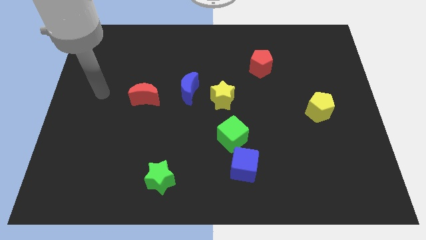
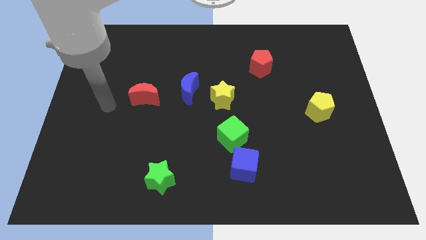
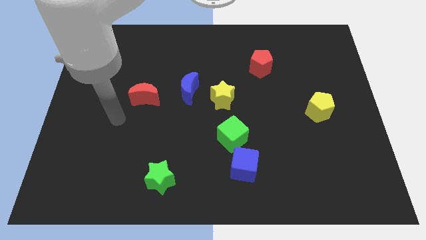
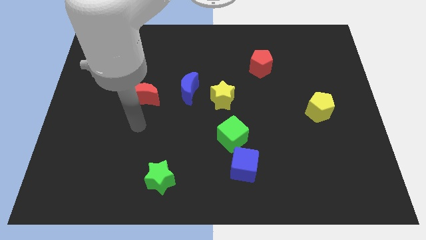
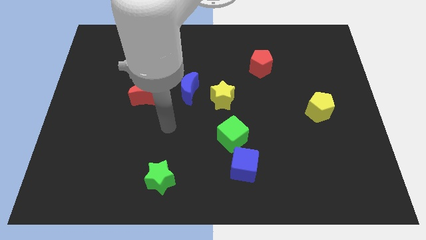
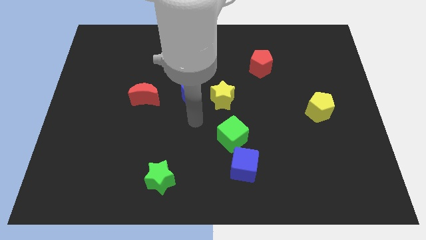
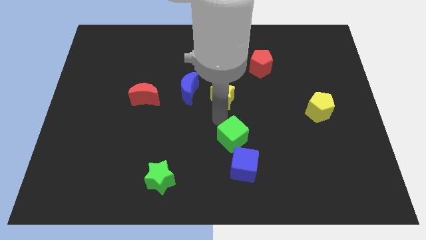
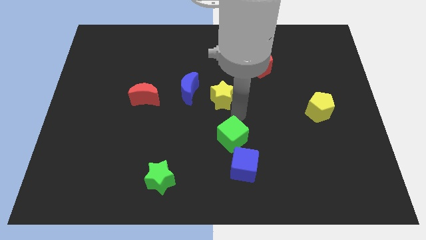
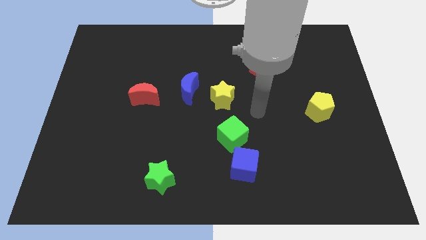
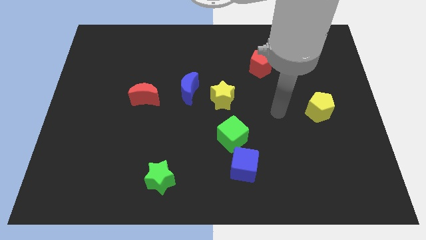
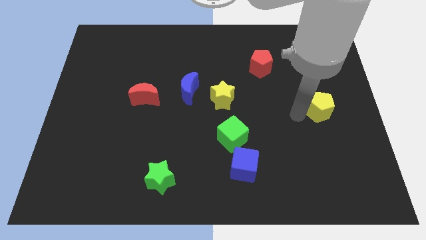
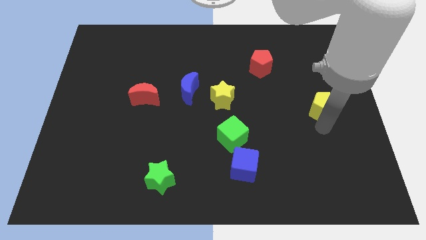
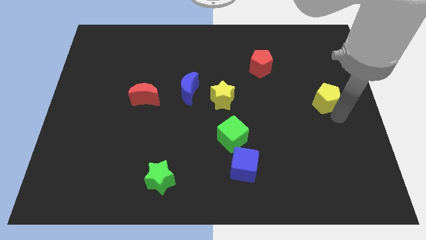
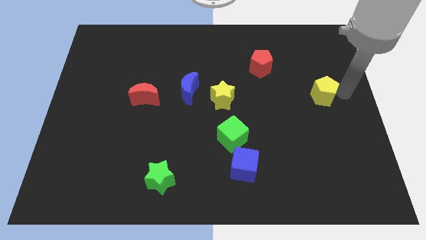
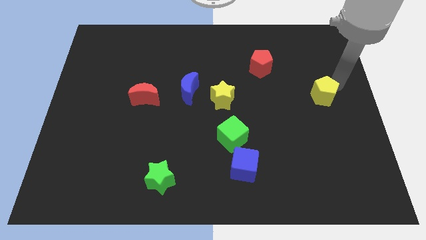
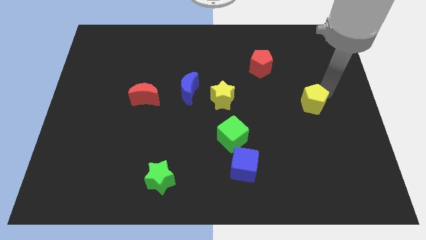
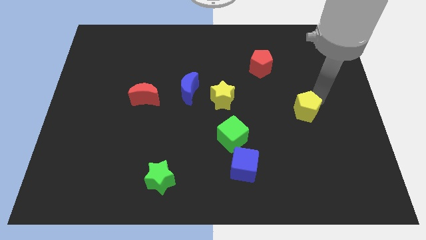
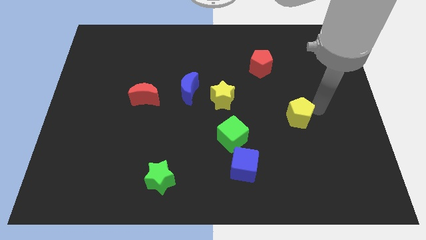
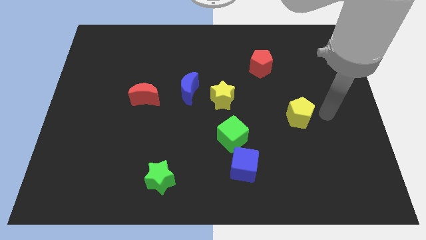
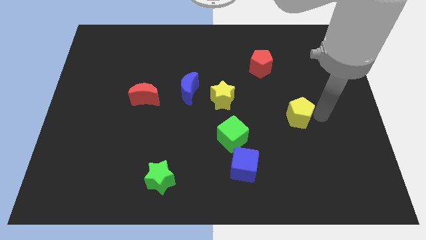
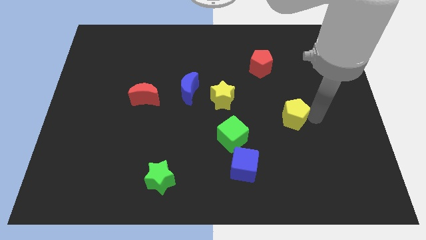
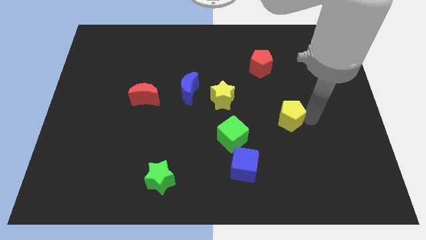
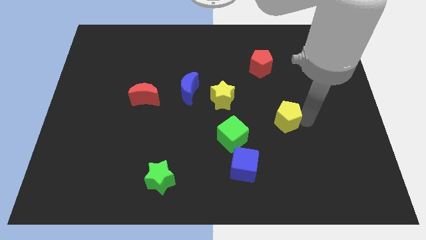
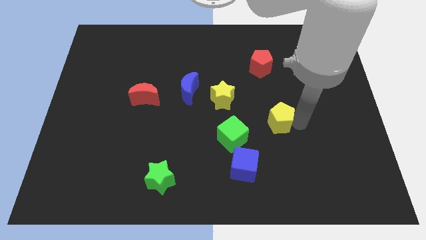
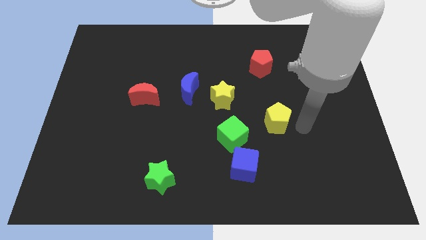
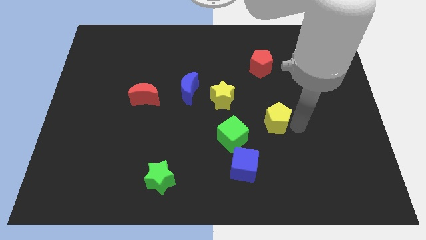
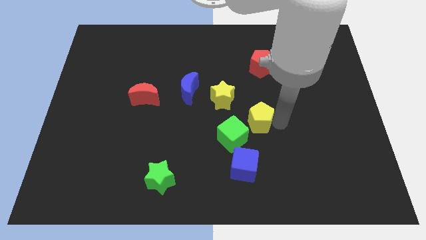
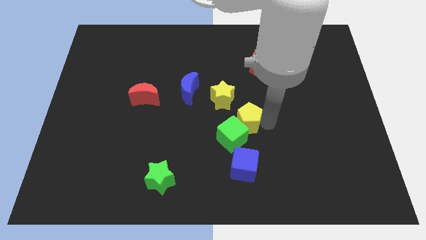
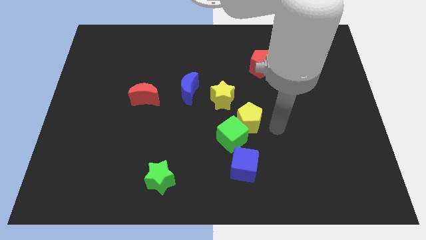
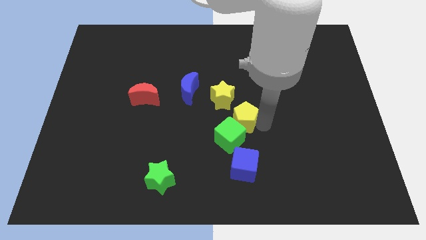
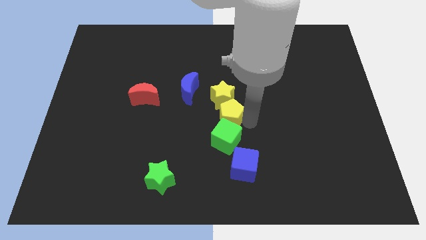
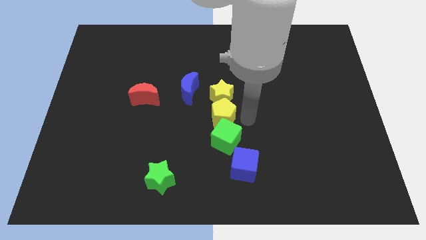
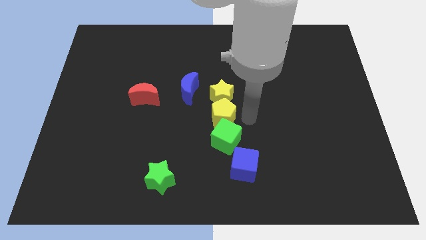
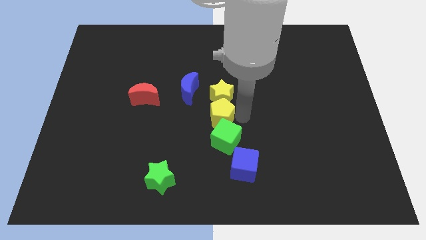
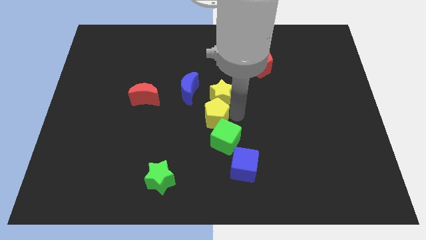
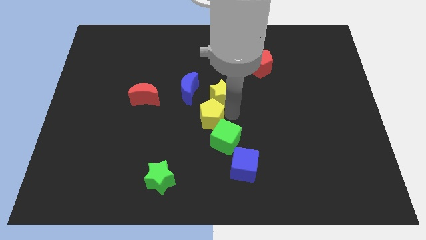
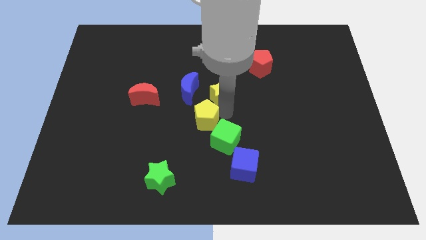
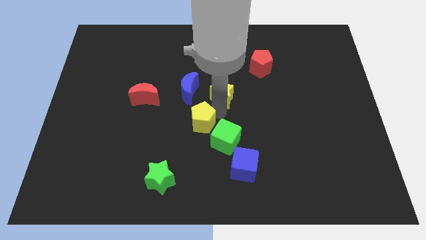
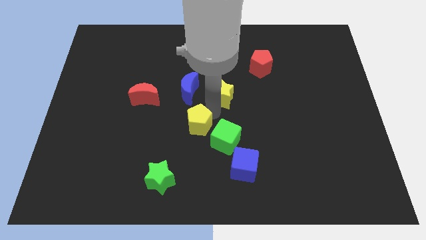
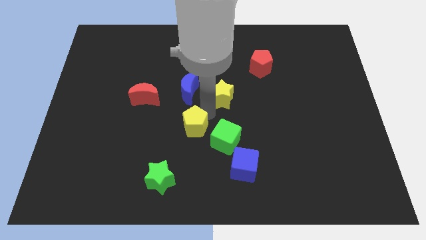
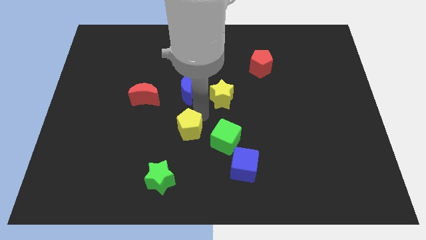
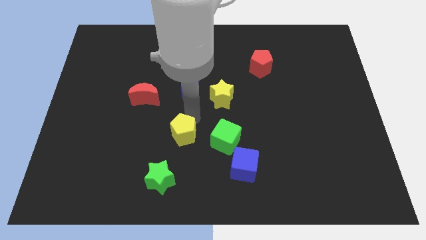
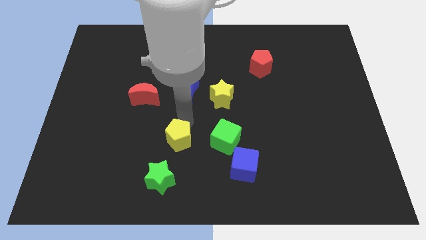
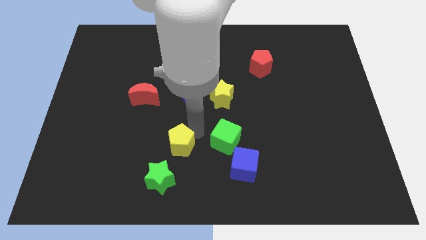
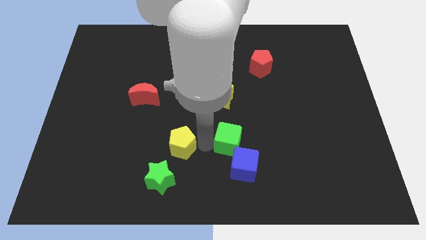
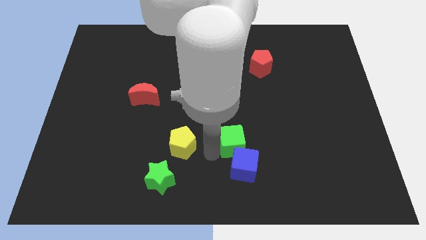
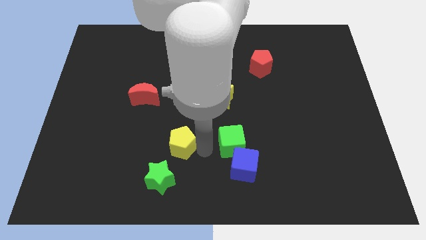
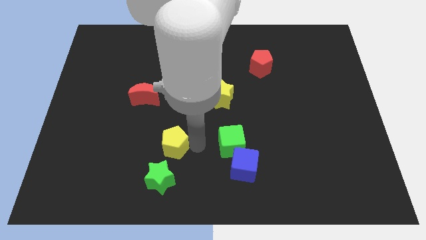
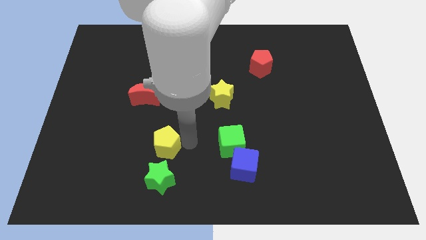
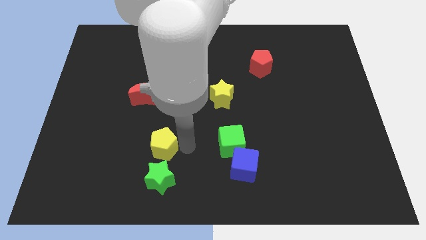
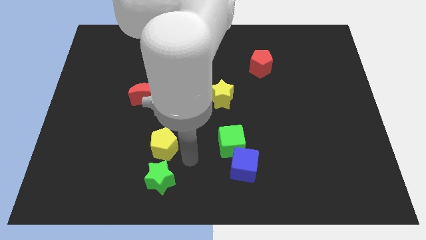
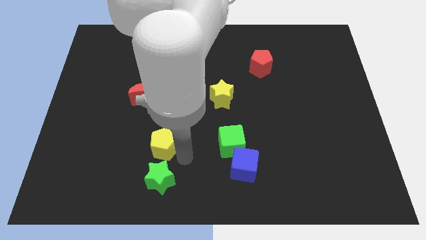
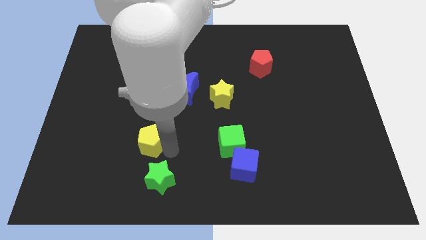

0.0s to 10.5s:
slide the yellow pentagon to the bottom side of the red moon

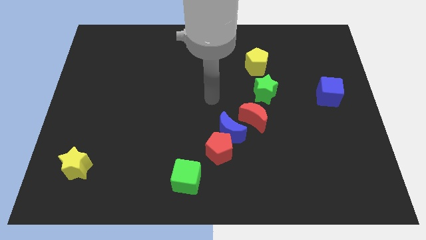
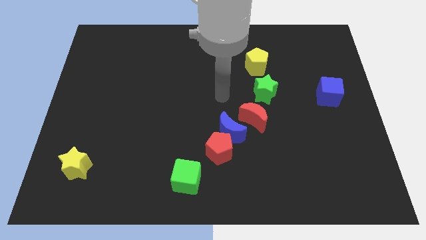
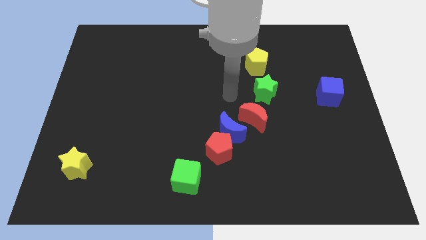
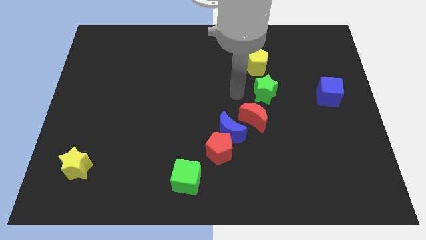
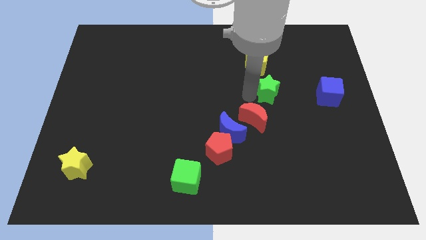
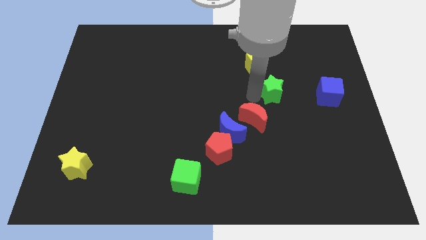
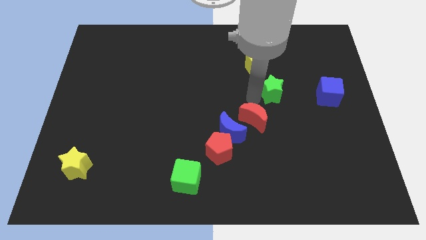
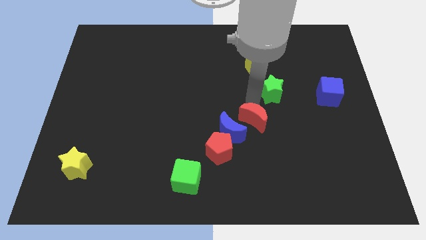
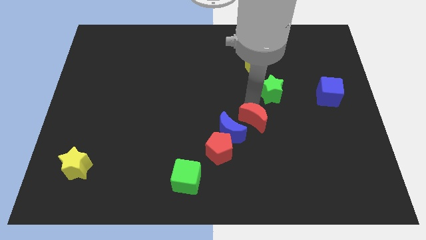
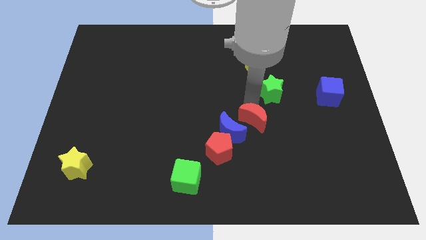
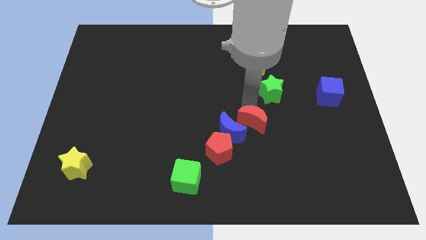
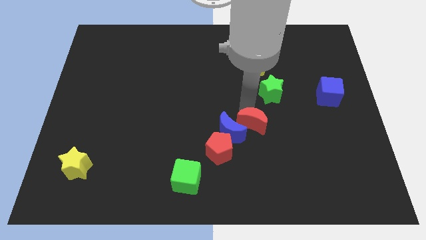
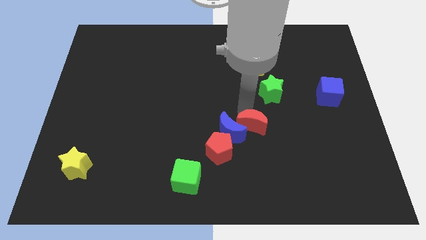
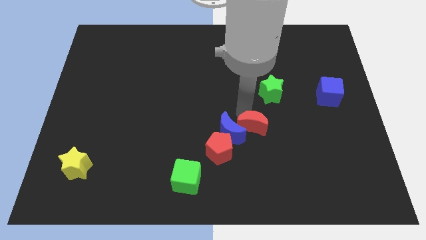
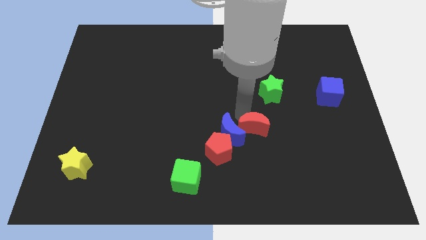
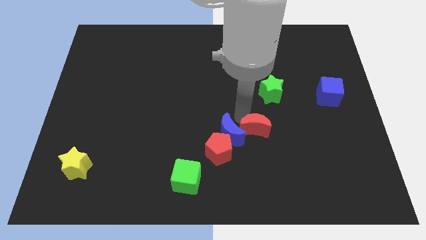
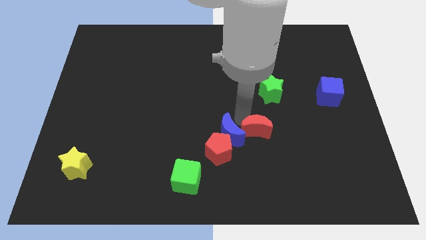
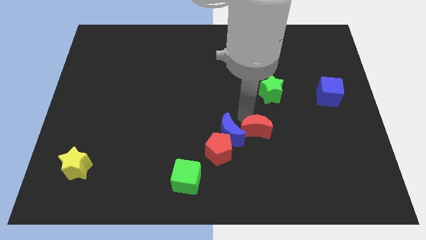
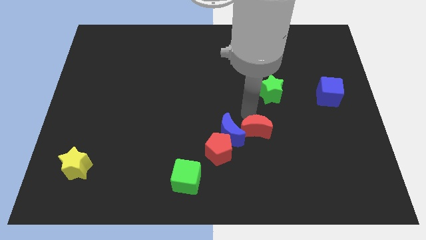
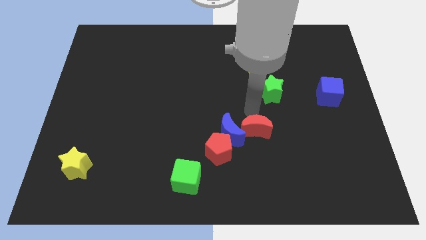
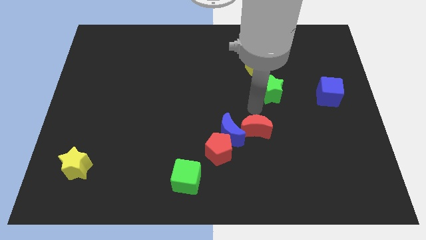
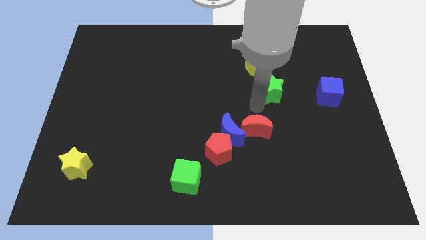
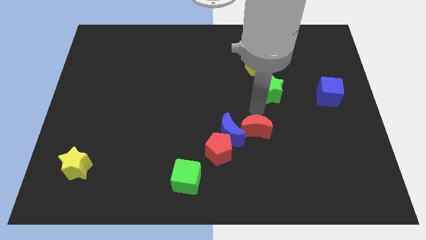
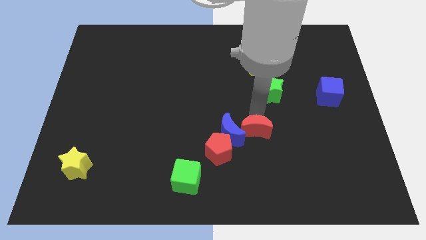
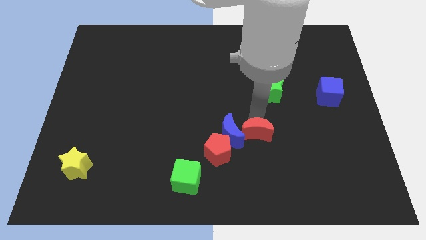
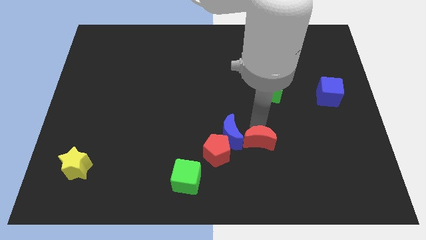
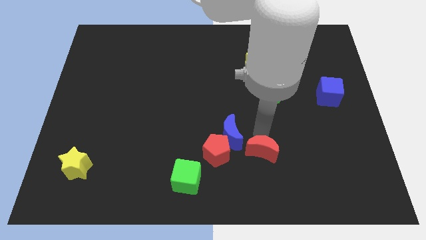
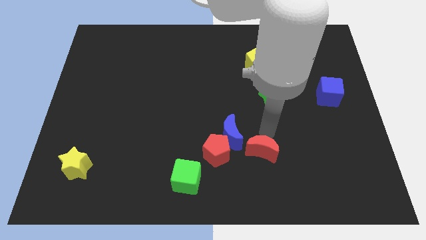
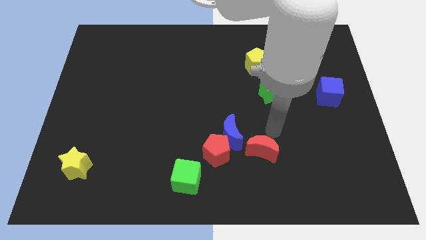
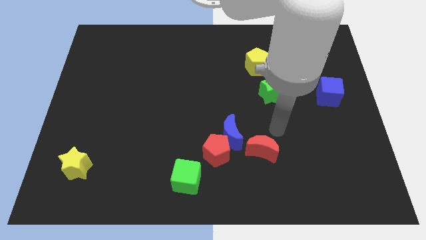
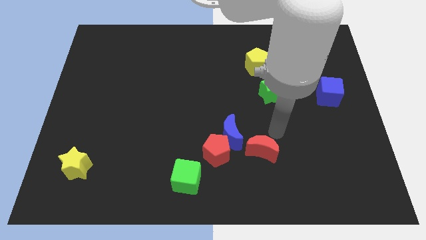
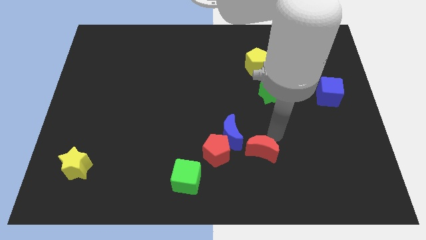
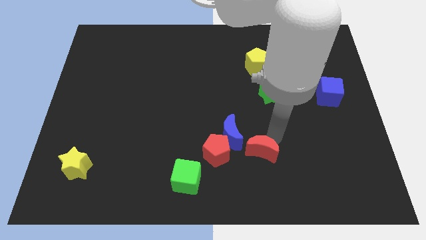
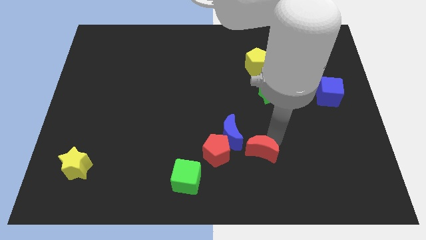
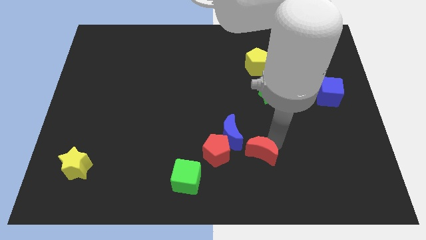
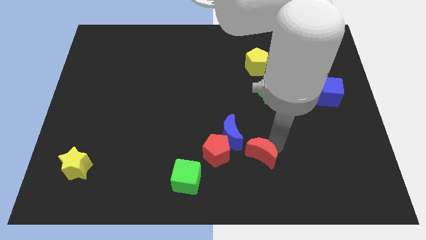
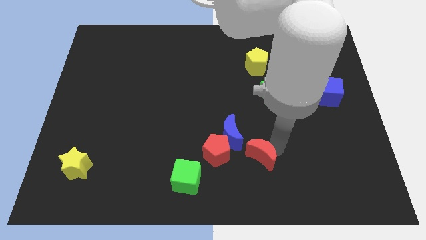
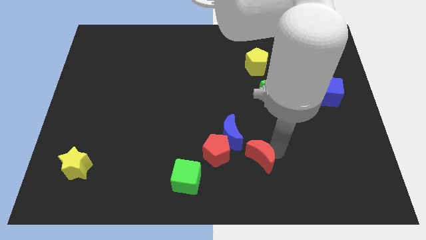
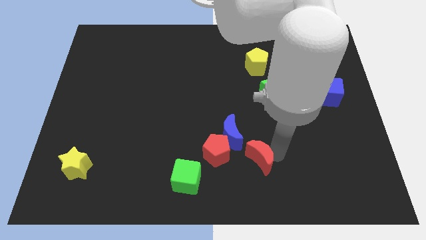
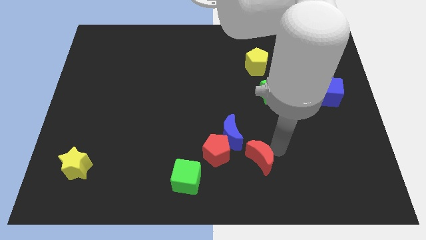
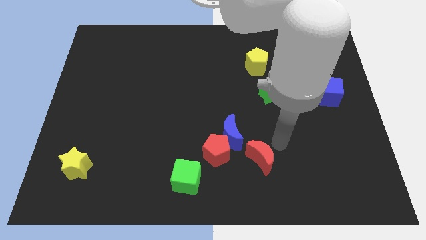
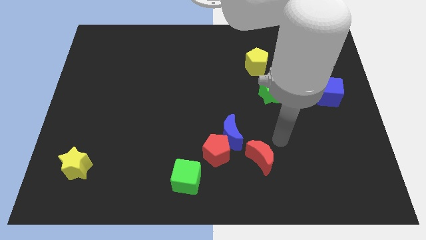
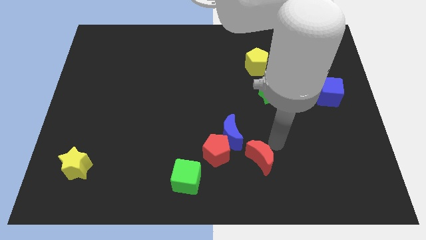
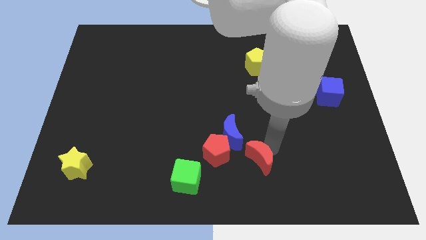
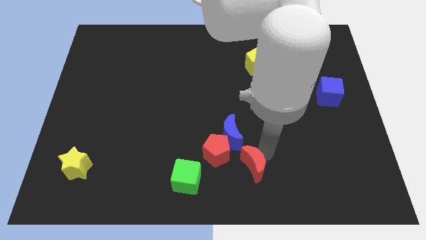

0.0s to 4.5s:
put the red moon to the bottom right of the red pentagon
